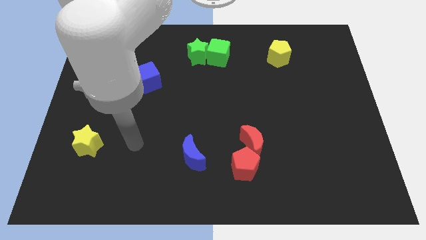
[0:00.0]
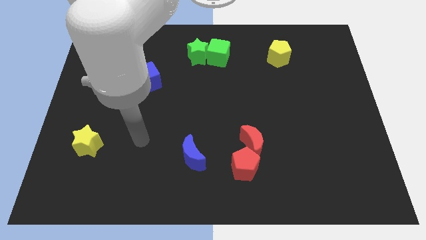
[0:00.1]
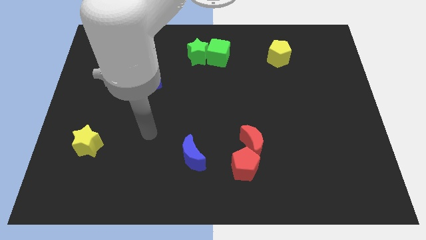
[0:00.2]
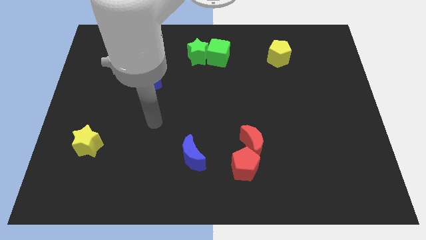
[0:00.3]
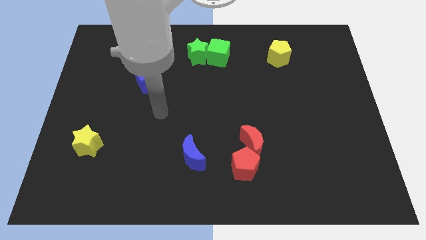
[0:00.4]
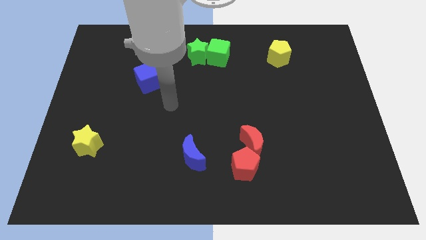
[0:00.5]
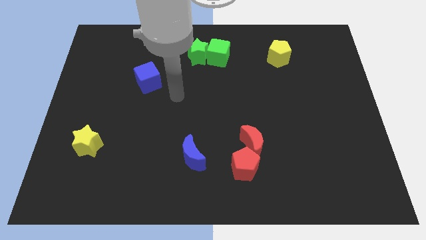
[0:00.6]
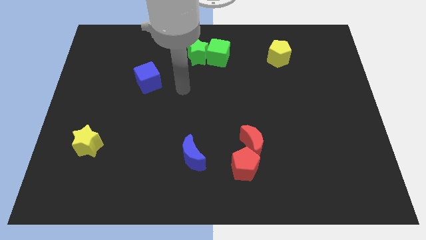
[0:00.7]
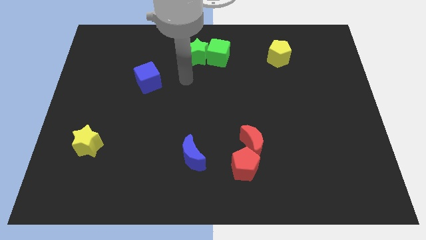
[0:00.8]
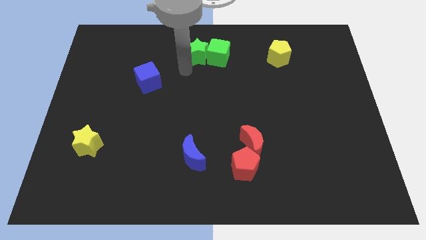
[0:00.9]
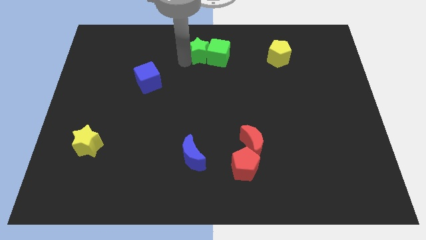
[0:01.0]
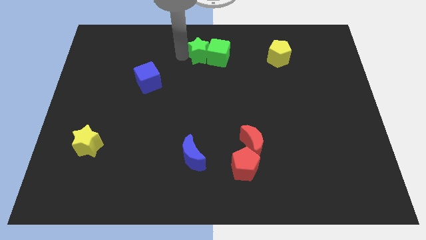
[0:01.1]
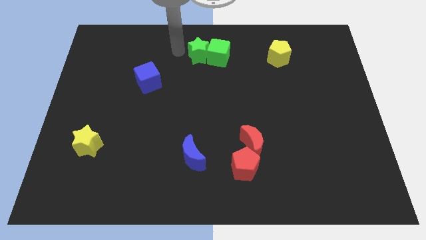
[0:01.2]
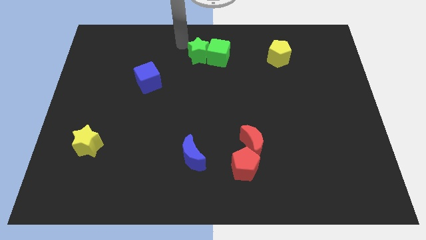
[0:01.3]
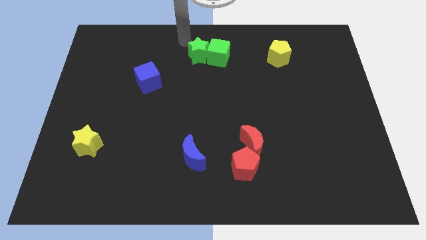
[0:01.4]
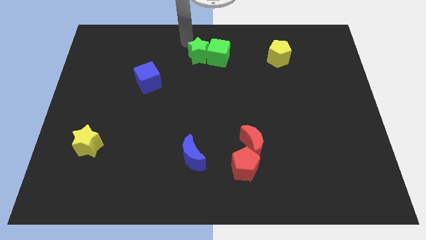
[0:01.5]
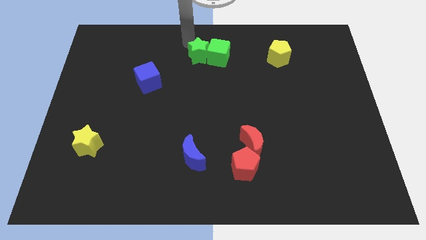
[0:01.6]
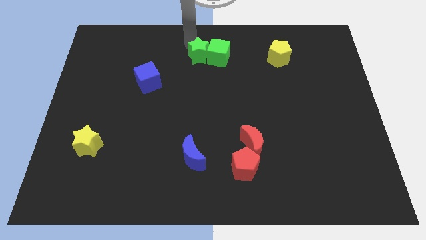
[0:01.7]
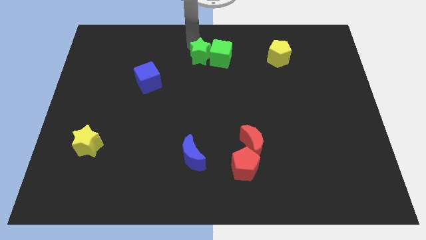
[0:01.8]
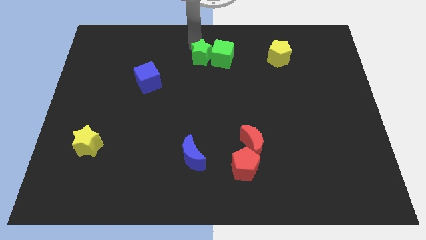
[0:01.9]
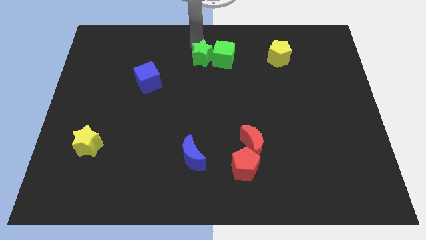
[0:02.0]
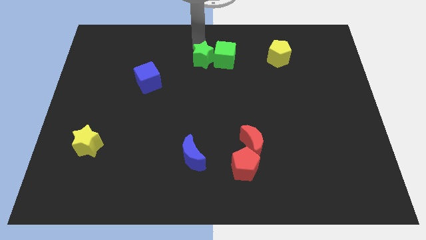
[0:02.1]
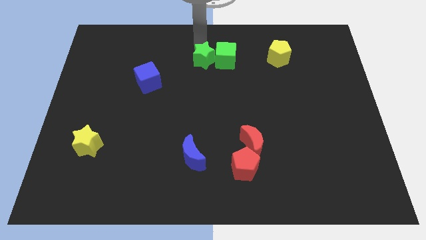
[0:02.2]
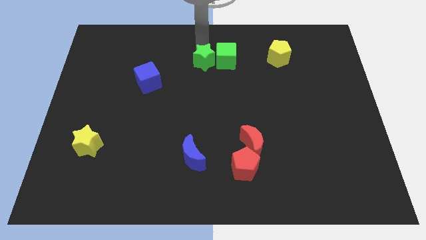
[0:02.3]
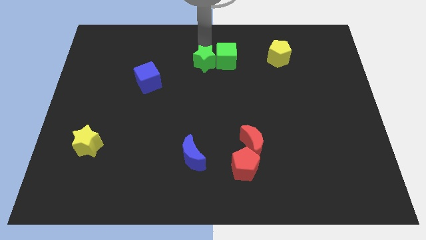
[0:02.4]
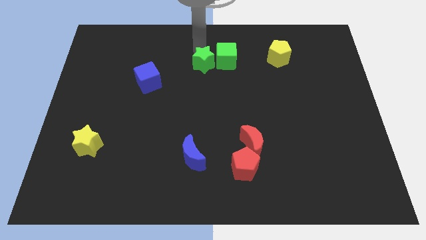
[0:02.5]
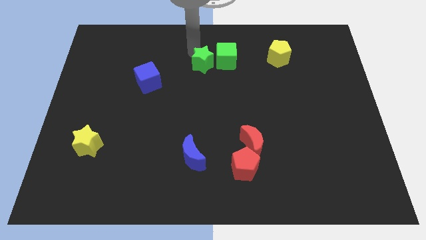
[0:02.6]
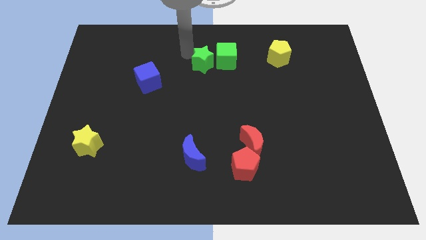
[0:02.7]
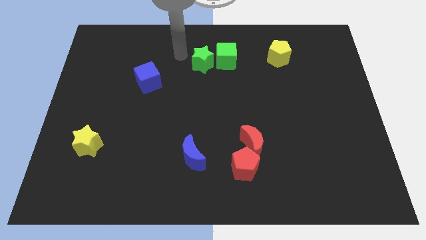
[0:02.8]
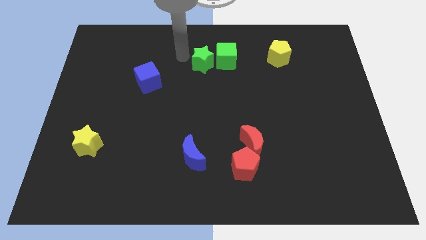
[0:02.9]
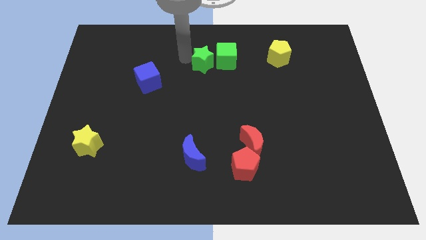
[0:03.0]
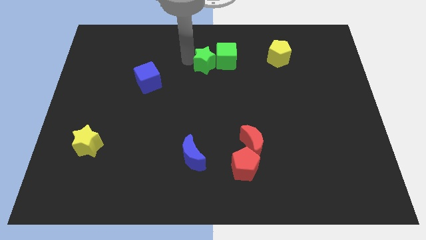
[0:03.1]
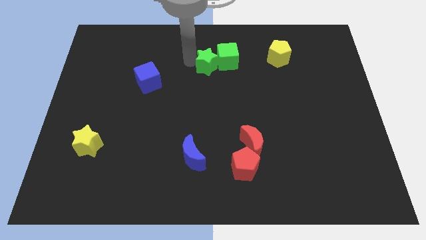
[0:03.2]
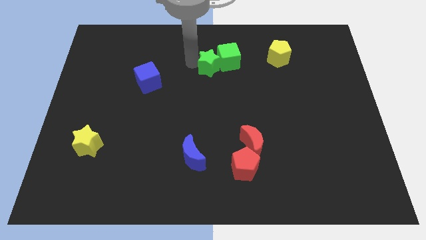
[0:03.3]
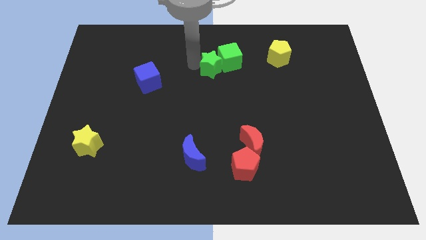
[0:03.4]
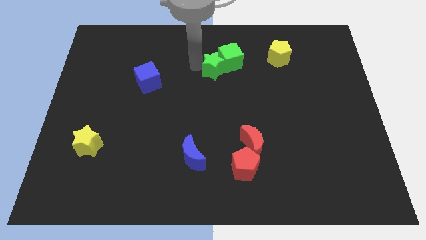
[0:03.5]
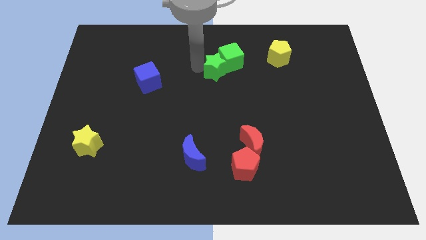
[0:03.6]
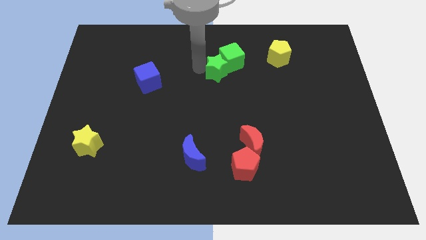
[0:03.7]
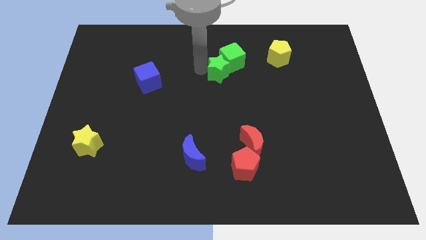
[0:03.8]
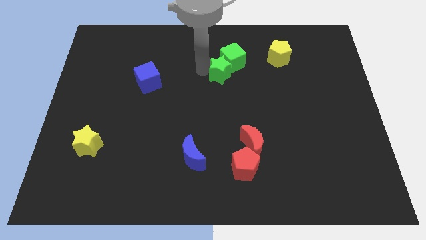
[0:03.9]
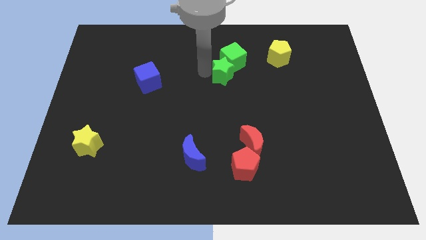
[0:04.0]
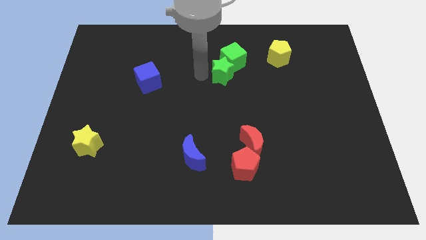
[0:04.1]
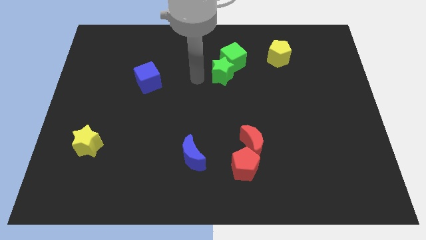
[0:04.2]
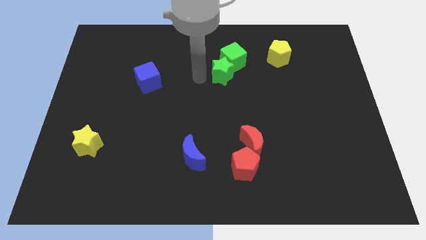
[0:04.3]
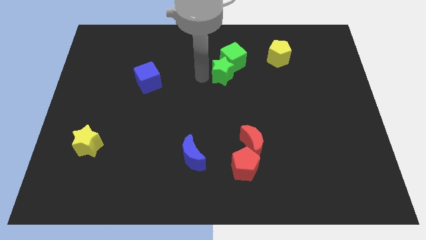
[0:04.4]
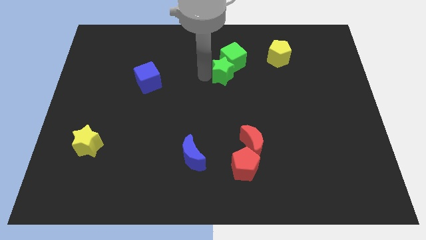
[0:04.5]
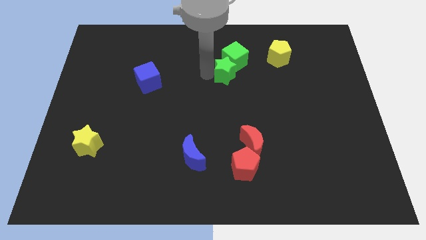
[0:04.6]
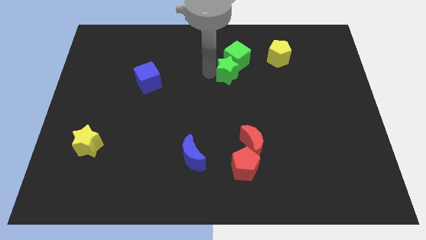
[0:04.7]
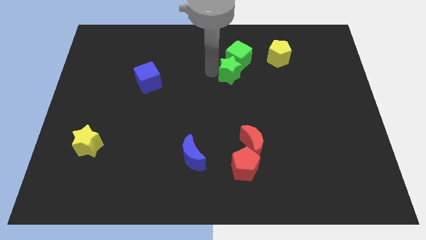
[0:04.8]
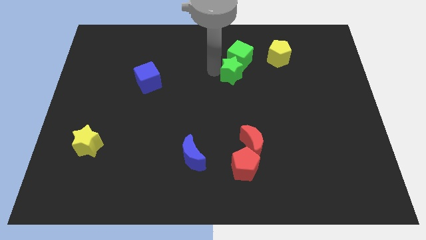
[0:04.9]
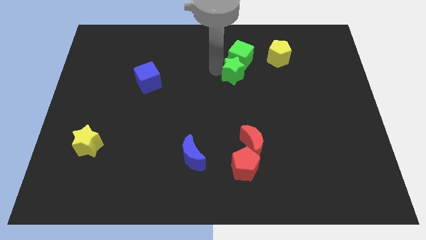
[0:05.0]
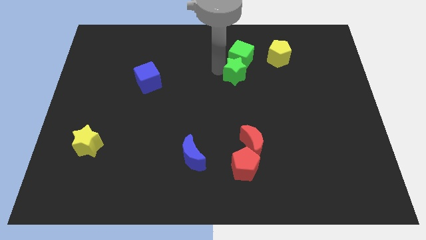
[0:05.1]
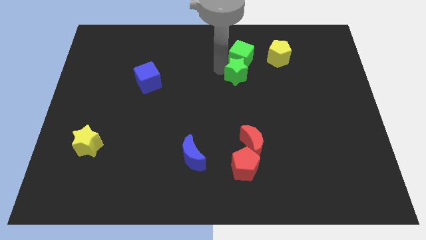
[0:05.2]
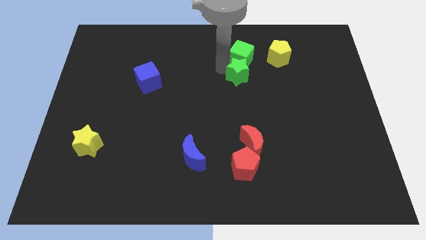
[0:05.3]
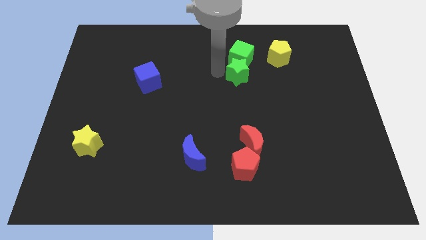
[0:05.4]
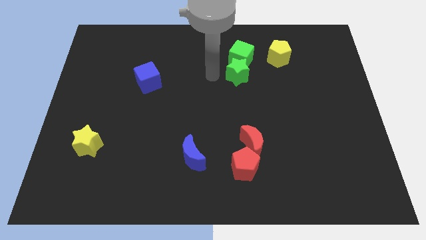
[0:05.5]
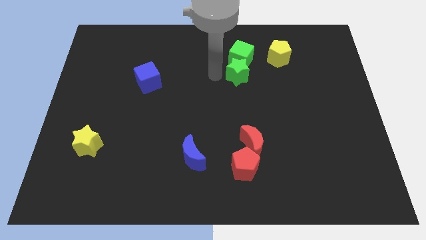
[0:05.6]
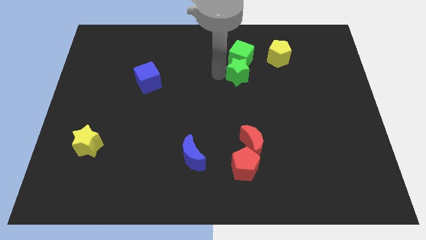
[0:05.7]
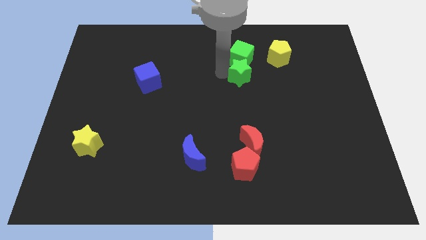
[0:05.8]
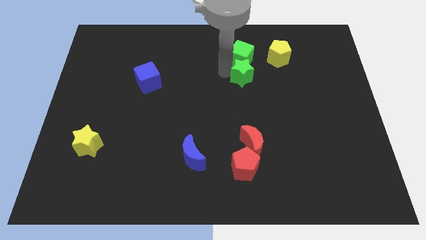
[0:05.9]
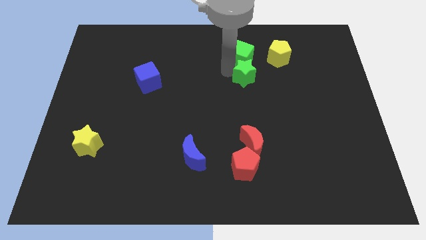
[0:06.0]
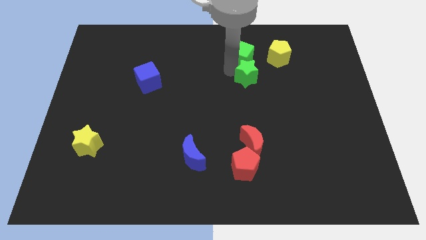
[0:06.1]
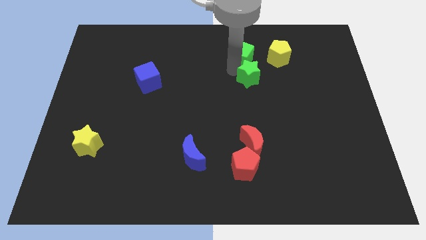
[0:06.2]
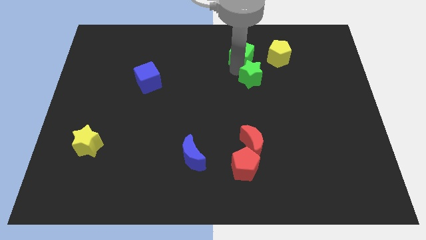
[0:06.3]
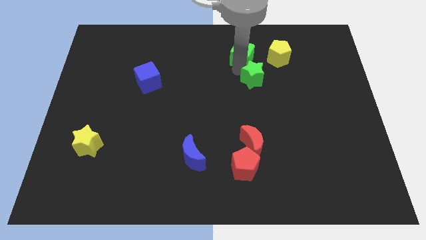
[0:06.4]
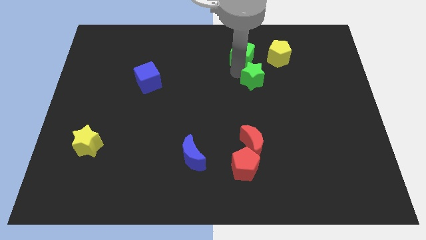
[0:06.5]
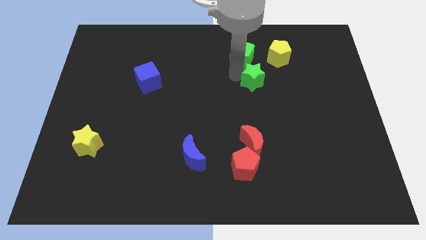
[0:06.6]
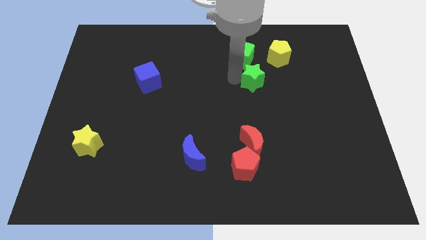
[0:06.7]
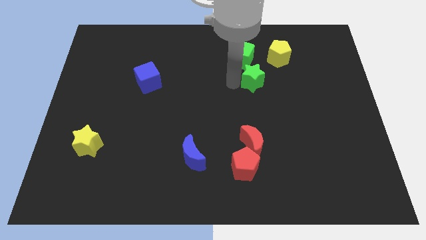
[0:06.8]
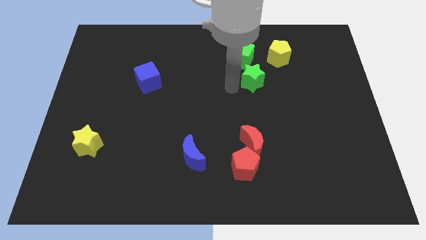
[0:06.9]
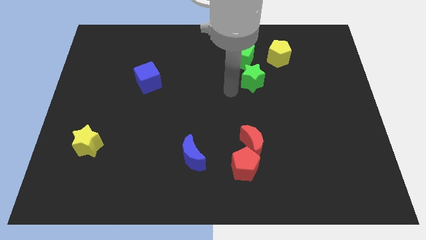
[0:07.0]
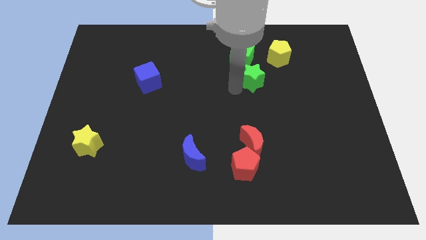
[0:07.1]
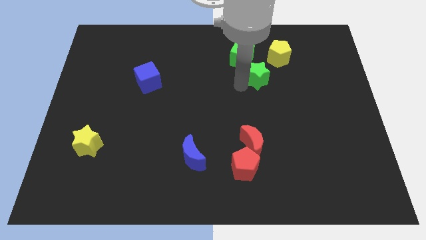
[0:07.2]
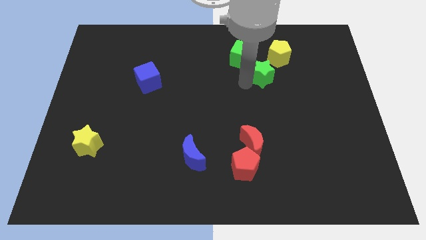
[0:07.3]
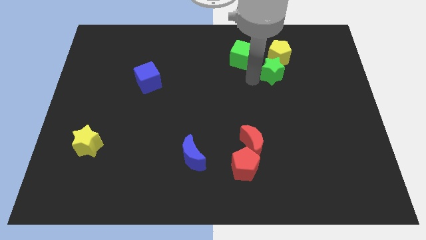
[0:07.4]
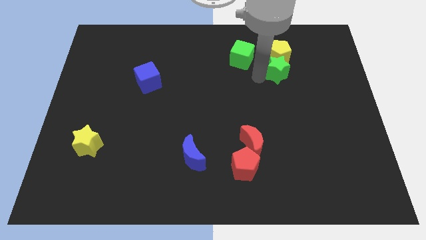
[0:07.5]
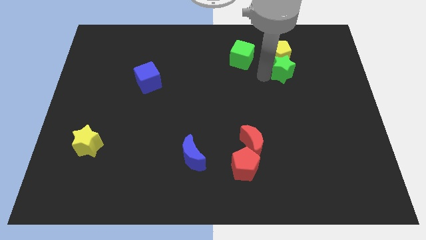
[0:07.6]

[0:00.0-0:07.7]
slide the green star to the right

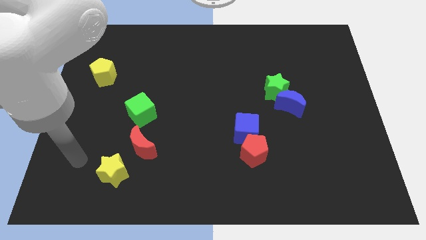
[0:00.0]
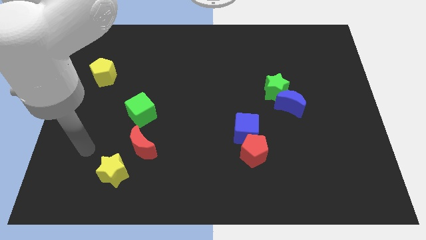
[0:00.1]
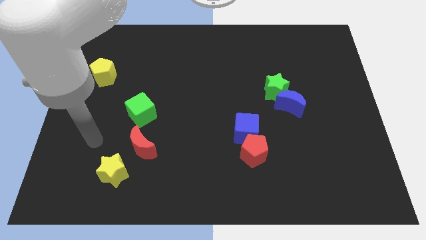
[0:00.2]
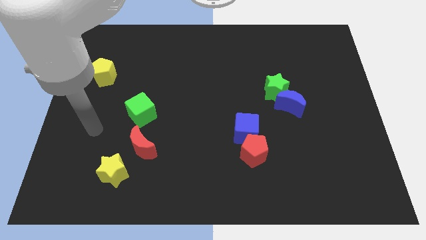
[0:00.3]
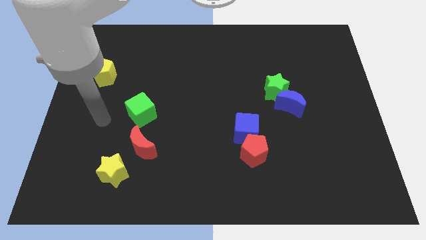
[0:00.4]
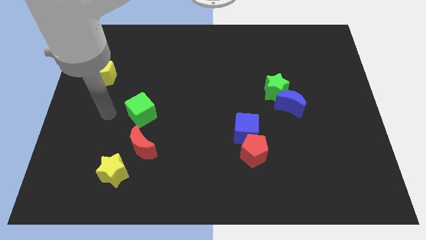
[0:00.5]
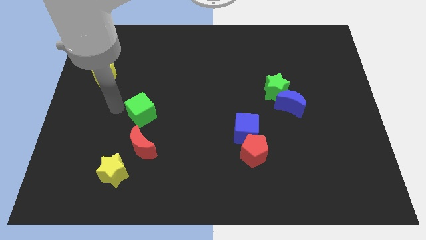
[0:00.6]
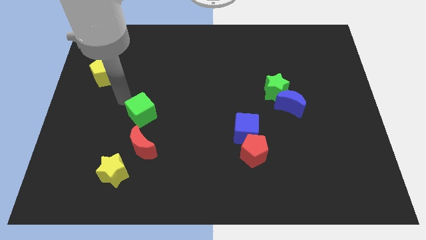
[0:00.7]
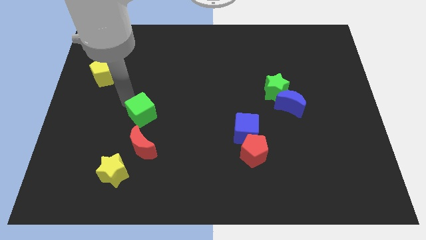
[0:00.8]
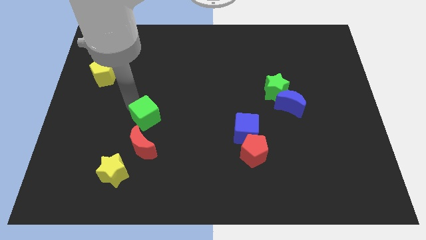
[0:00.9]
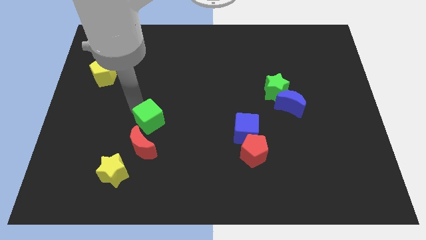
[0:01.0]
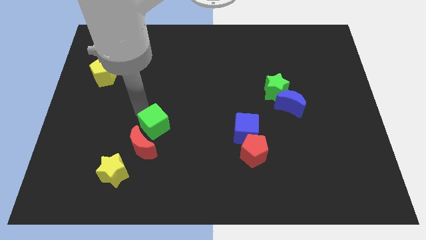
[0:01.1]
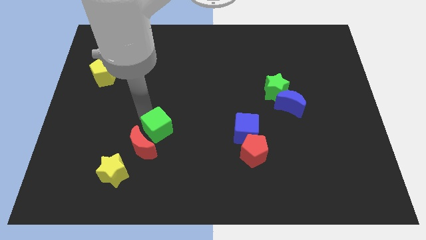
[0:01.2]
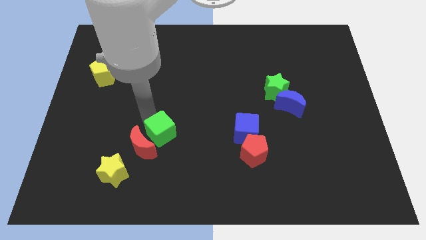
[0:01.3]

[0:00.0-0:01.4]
slightly move the green cube down and to the right
